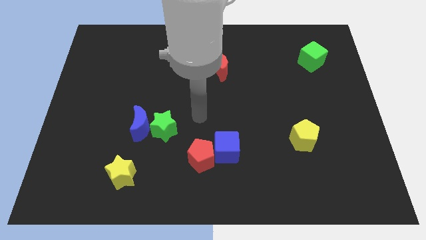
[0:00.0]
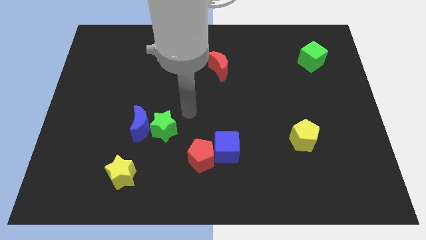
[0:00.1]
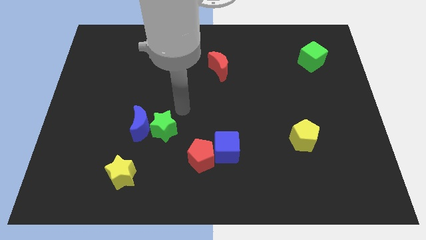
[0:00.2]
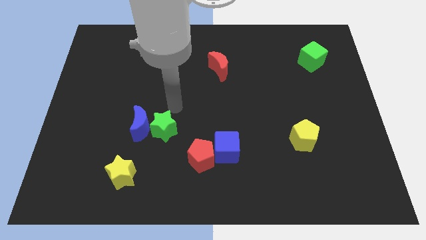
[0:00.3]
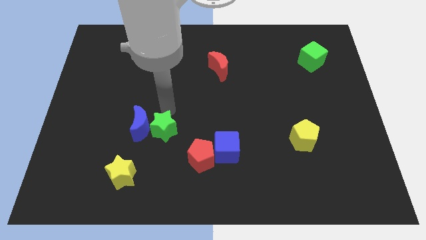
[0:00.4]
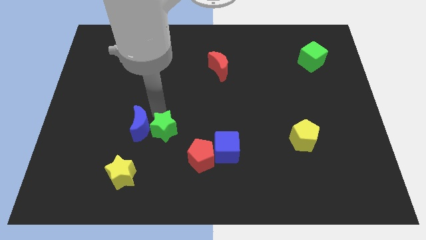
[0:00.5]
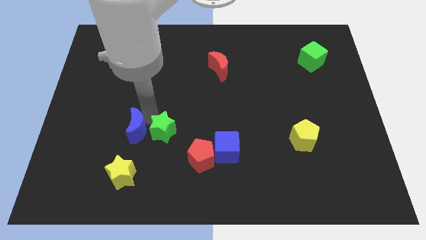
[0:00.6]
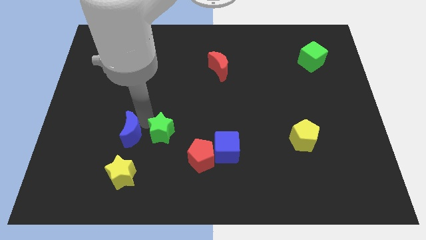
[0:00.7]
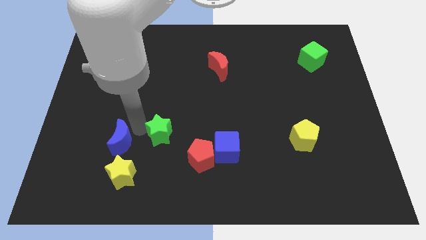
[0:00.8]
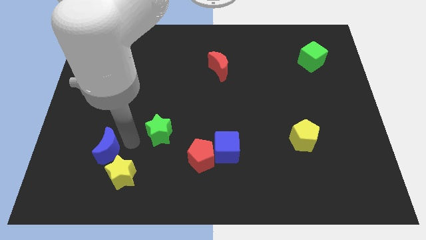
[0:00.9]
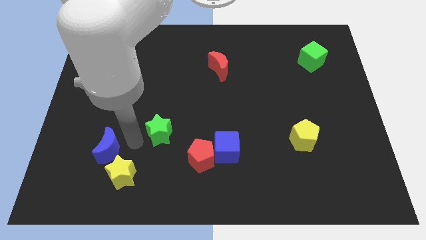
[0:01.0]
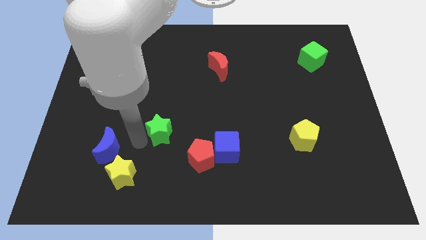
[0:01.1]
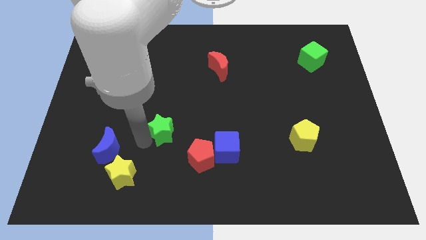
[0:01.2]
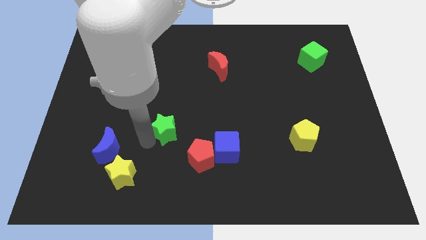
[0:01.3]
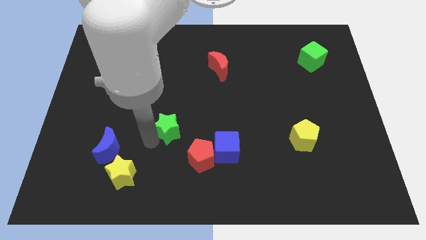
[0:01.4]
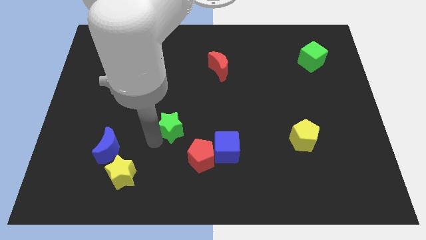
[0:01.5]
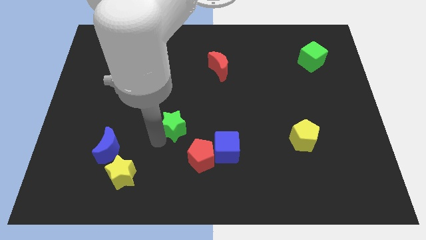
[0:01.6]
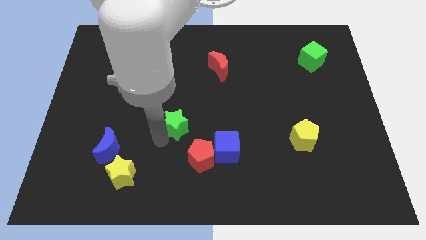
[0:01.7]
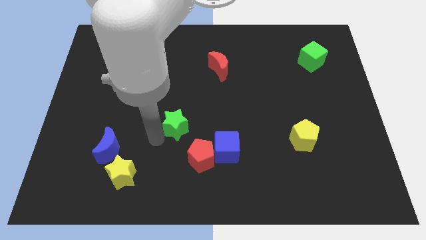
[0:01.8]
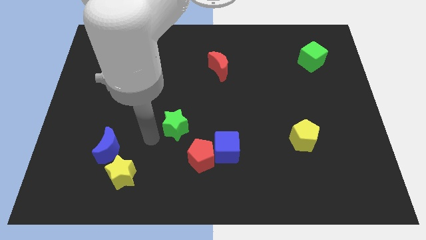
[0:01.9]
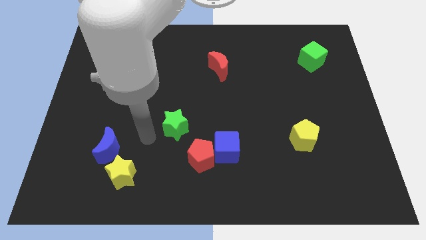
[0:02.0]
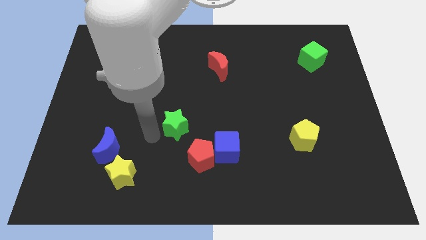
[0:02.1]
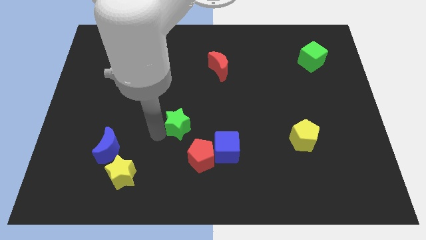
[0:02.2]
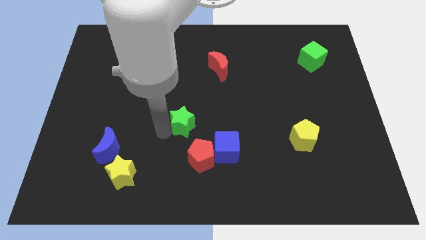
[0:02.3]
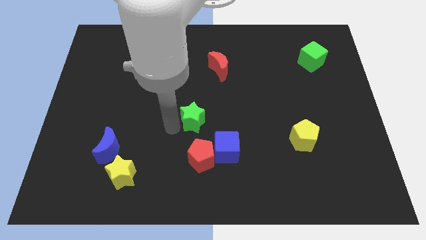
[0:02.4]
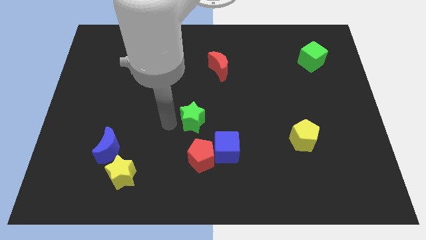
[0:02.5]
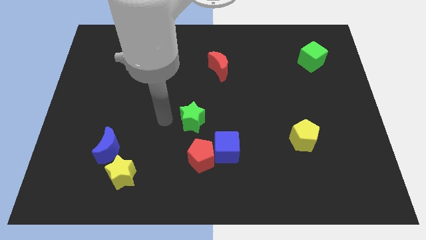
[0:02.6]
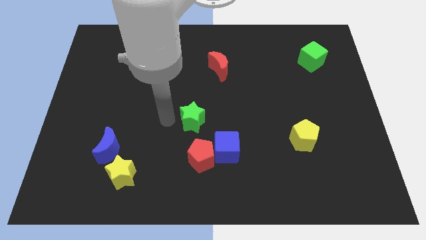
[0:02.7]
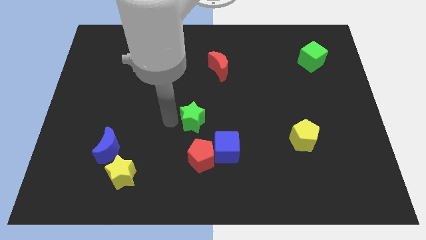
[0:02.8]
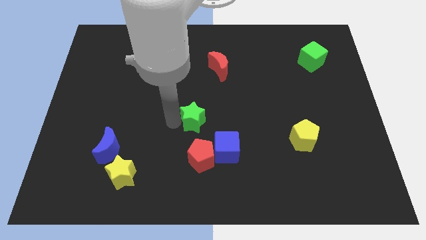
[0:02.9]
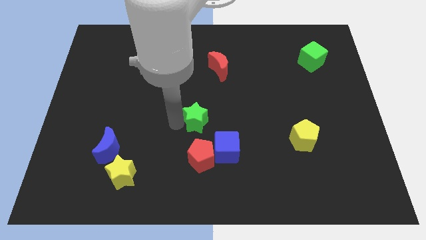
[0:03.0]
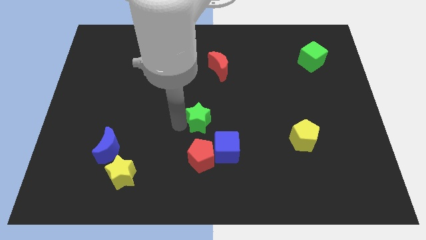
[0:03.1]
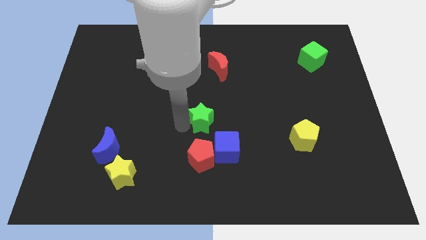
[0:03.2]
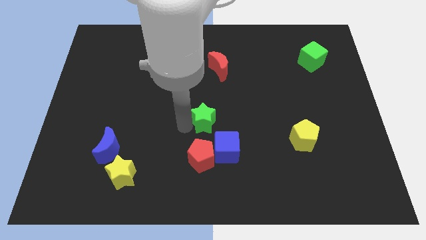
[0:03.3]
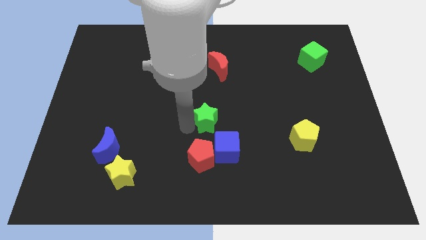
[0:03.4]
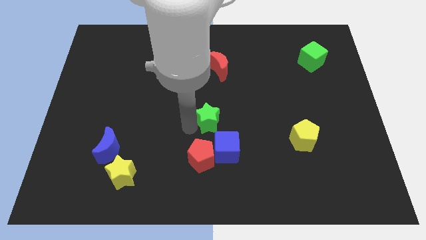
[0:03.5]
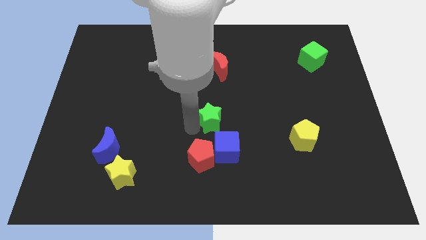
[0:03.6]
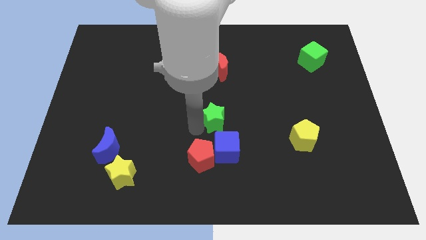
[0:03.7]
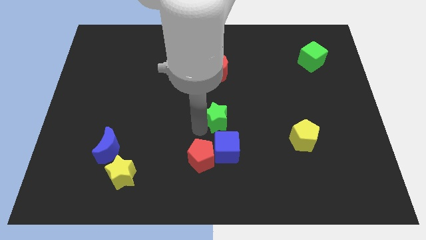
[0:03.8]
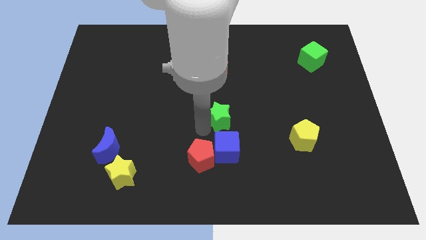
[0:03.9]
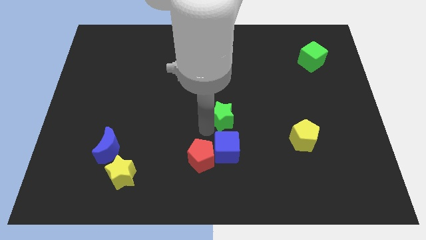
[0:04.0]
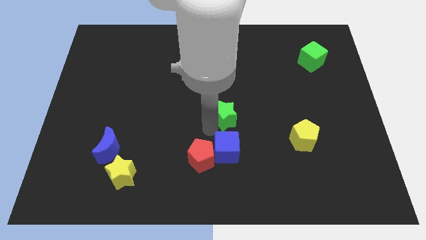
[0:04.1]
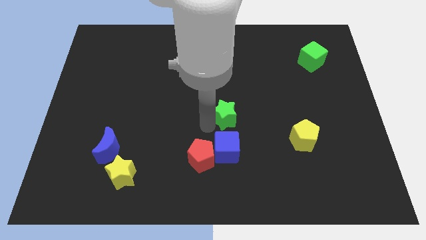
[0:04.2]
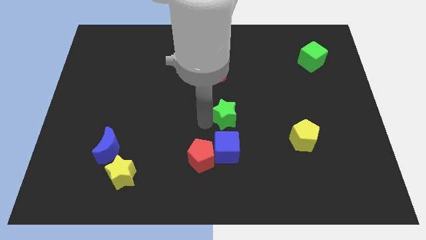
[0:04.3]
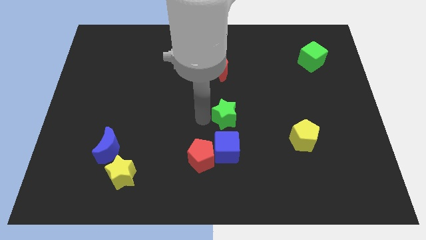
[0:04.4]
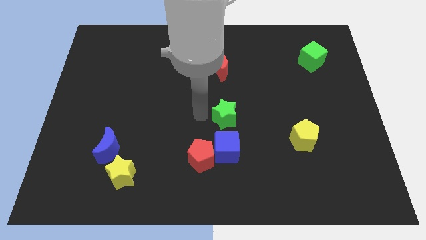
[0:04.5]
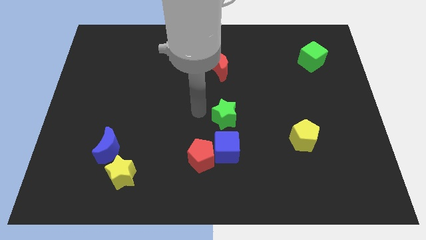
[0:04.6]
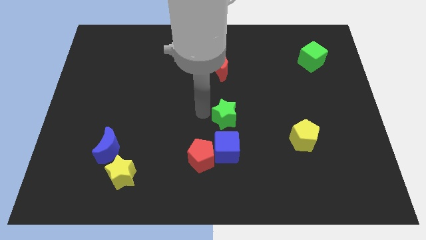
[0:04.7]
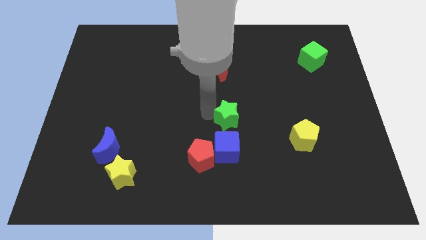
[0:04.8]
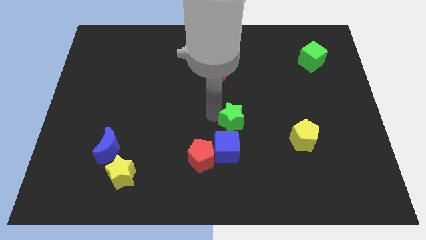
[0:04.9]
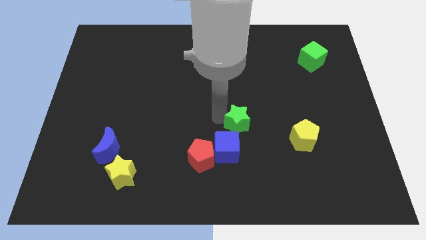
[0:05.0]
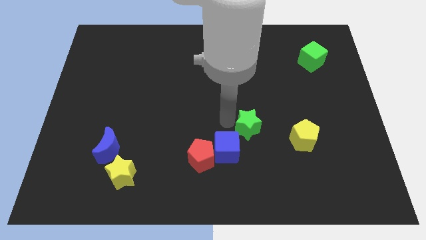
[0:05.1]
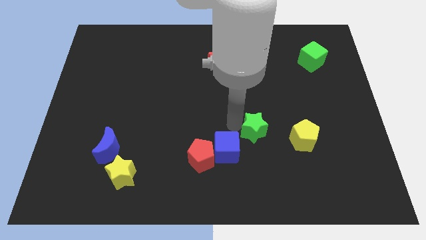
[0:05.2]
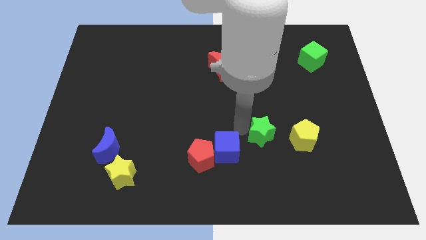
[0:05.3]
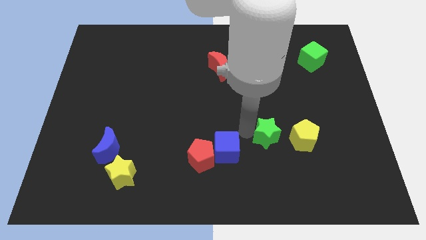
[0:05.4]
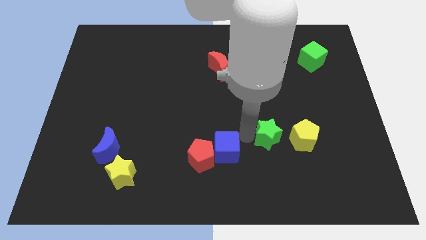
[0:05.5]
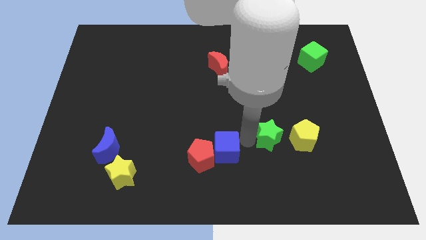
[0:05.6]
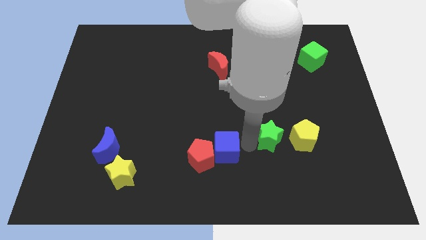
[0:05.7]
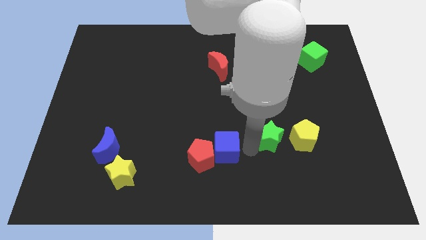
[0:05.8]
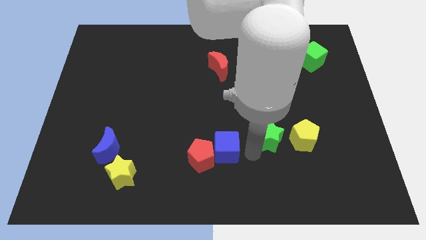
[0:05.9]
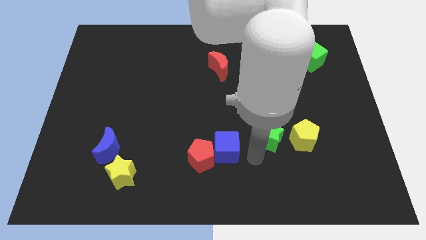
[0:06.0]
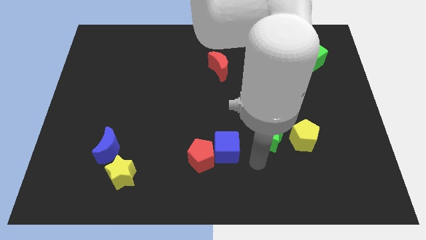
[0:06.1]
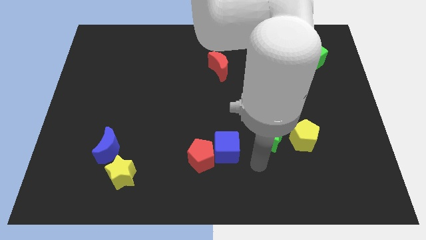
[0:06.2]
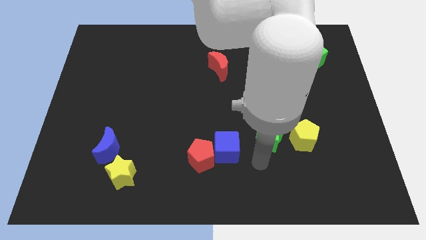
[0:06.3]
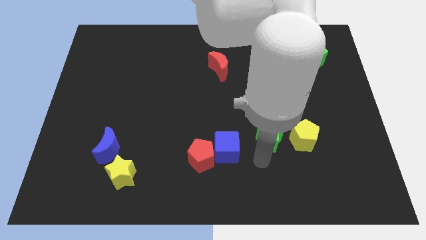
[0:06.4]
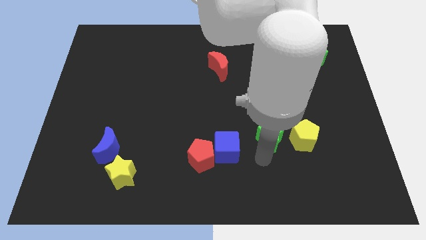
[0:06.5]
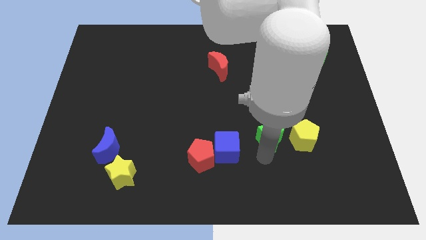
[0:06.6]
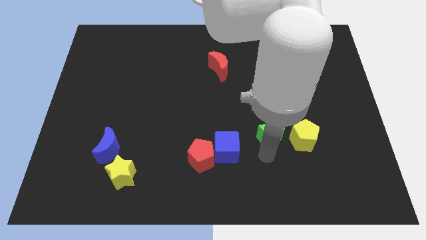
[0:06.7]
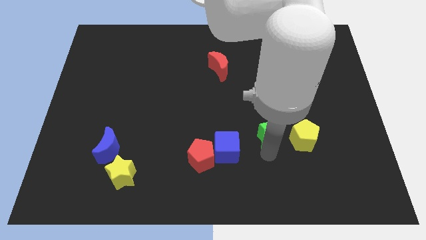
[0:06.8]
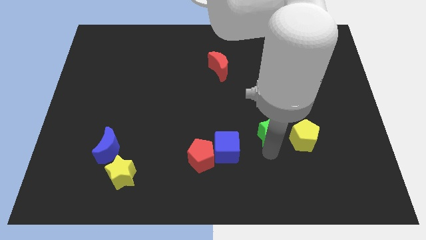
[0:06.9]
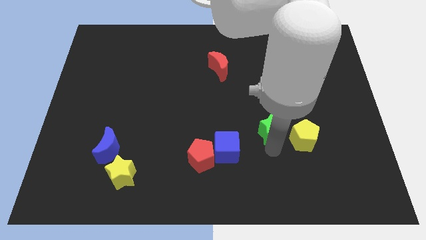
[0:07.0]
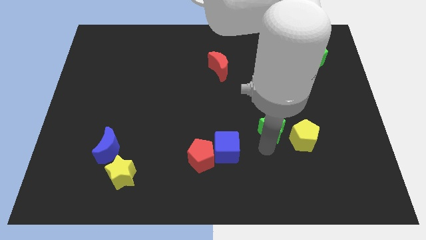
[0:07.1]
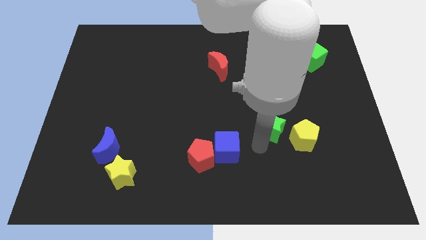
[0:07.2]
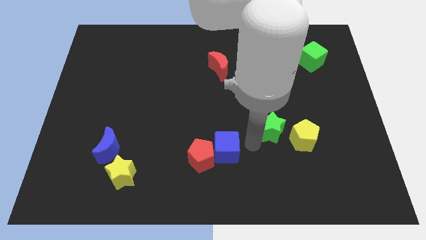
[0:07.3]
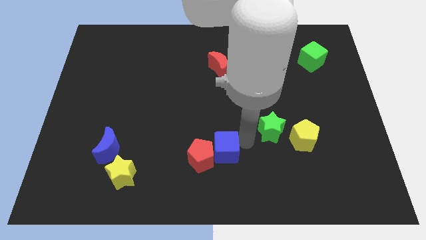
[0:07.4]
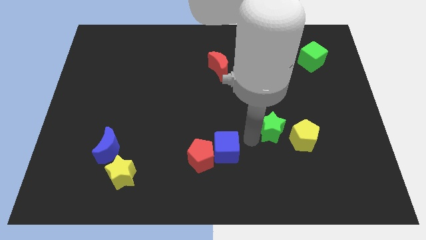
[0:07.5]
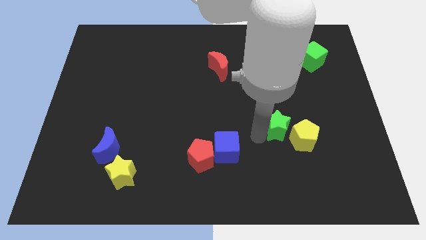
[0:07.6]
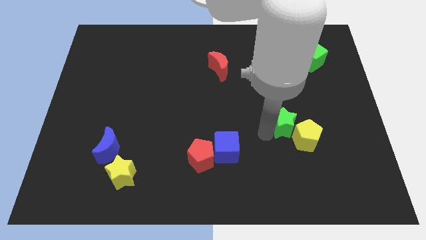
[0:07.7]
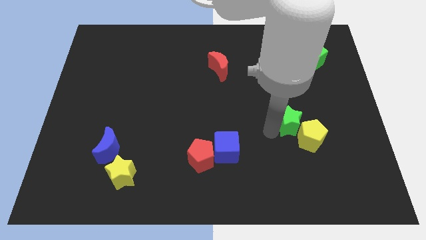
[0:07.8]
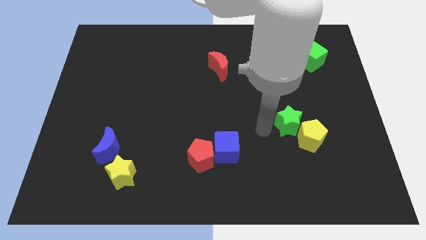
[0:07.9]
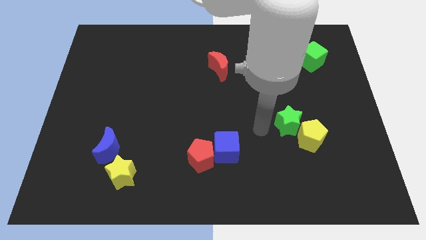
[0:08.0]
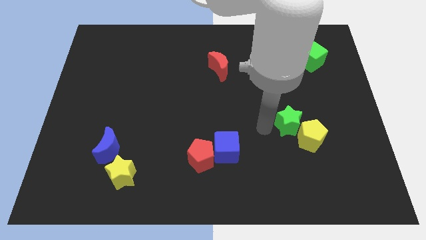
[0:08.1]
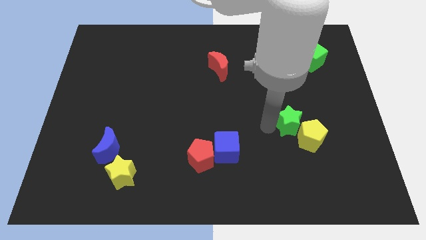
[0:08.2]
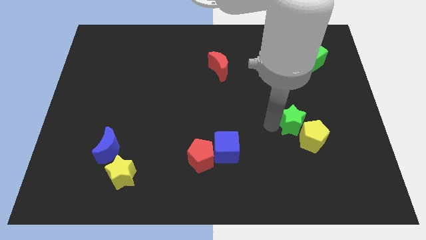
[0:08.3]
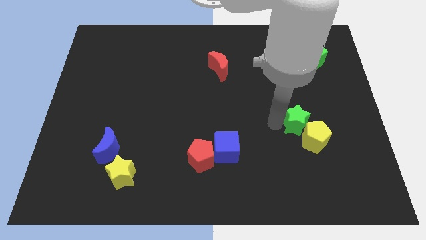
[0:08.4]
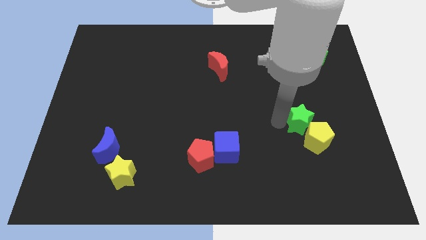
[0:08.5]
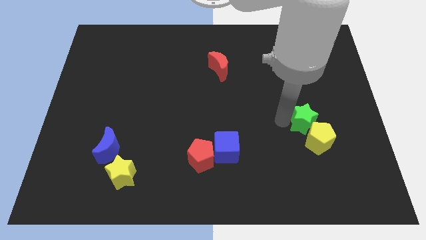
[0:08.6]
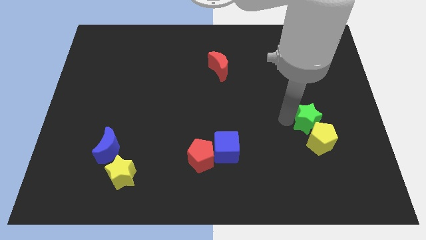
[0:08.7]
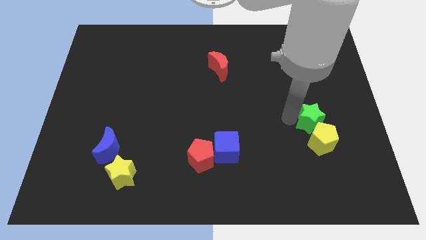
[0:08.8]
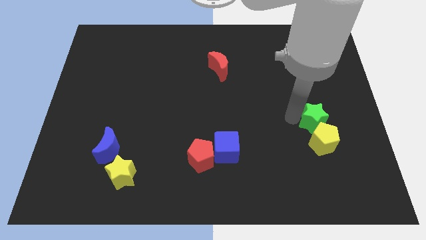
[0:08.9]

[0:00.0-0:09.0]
push the green star diagonally up and to the right of the yellow pentagon
